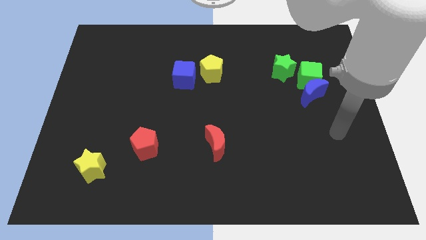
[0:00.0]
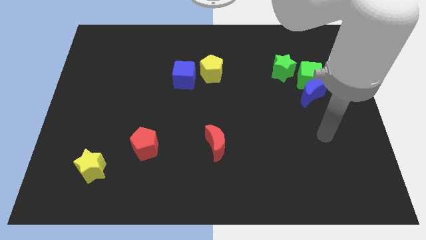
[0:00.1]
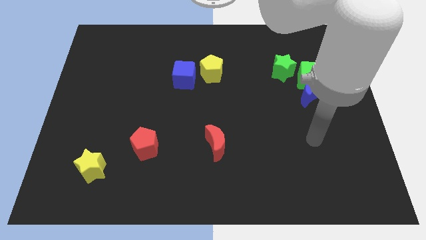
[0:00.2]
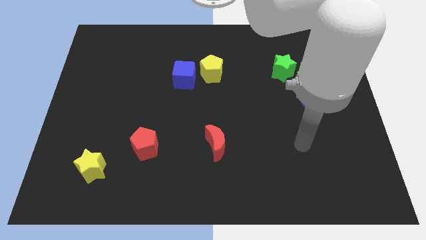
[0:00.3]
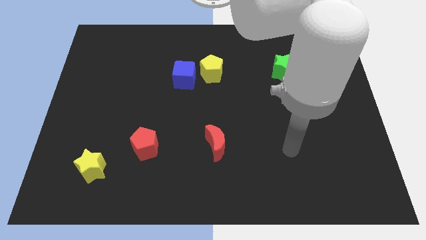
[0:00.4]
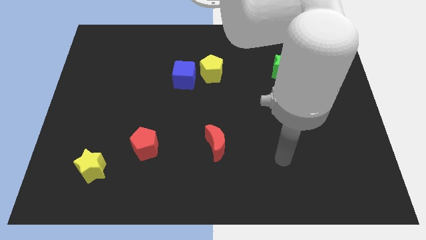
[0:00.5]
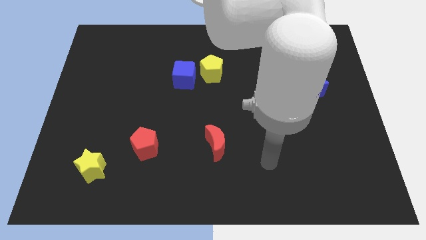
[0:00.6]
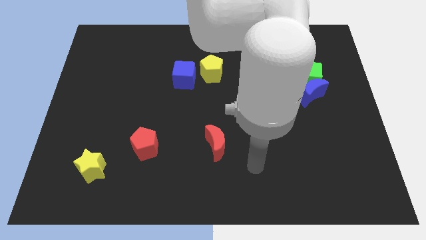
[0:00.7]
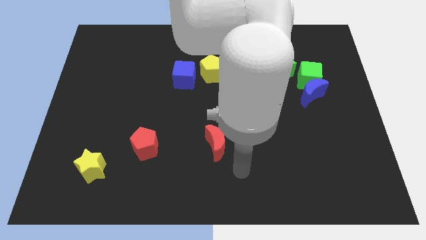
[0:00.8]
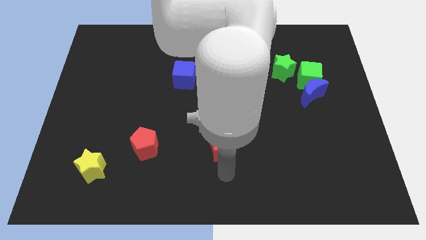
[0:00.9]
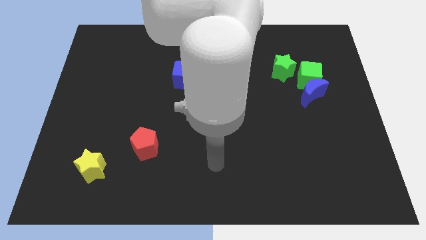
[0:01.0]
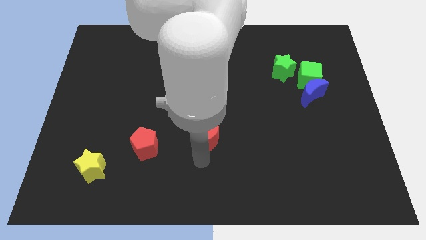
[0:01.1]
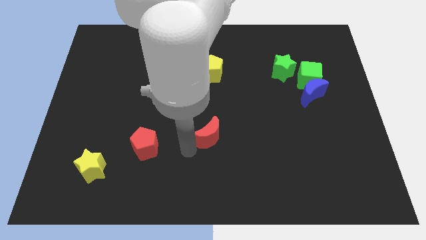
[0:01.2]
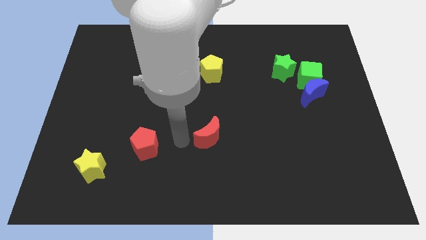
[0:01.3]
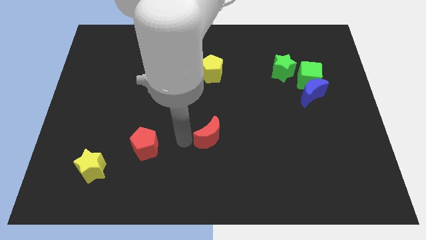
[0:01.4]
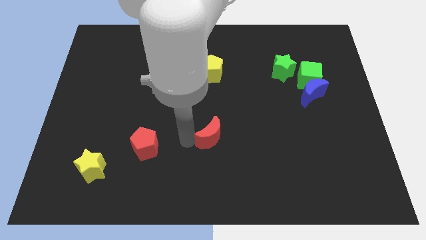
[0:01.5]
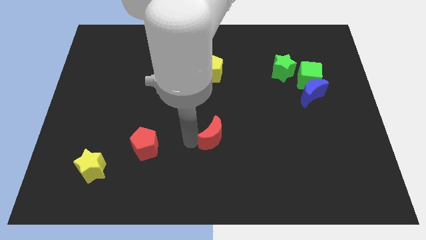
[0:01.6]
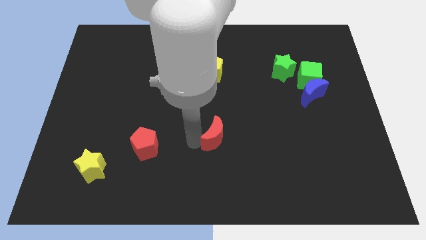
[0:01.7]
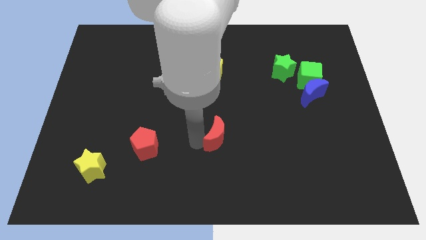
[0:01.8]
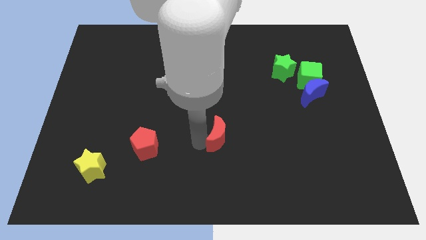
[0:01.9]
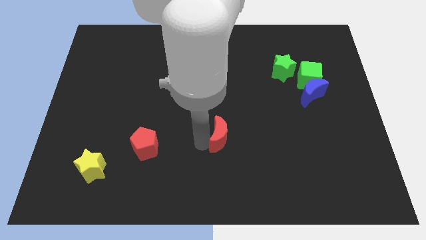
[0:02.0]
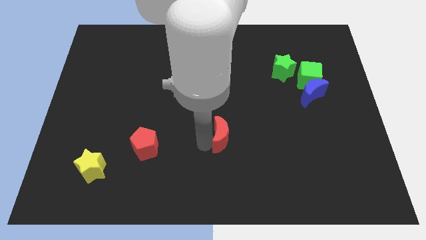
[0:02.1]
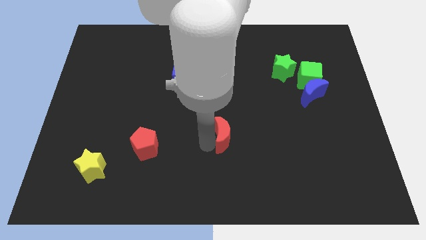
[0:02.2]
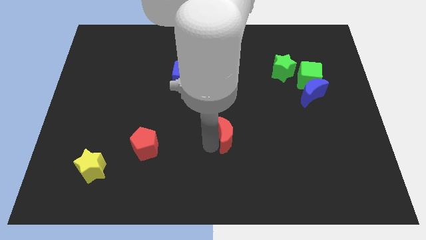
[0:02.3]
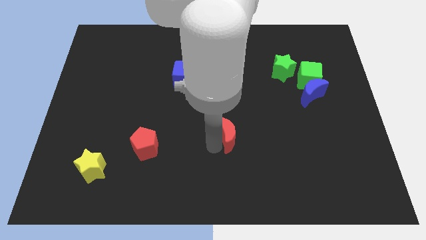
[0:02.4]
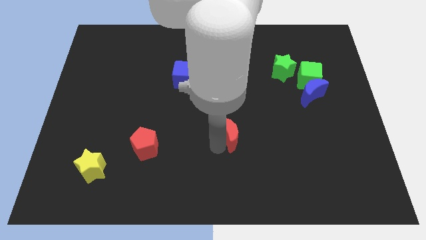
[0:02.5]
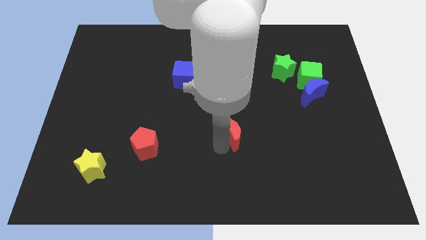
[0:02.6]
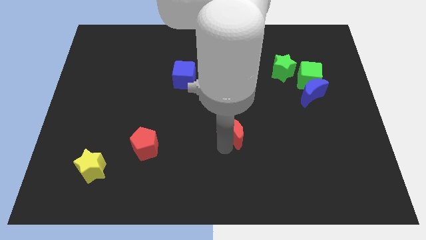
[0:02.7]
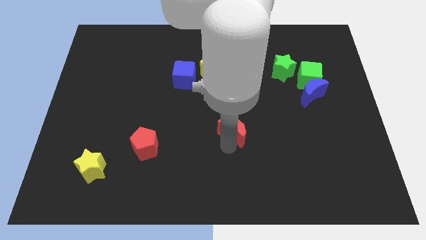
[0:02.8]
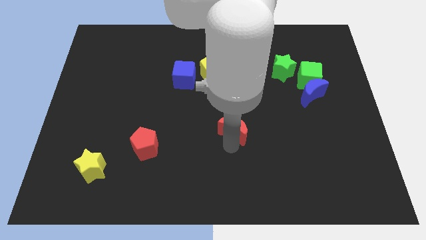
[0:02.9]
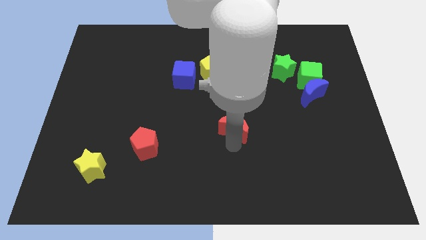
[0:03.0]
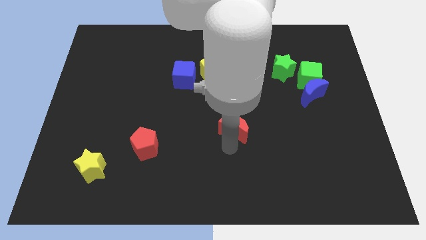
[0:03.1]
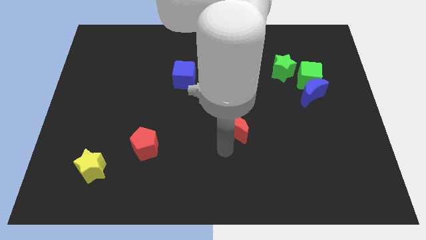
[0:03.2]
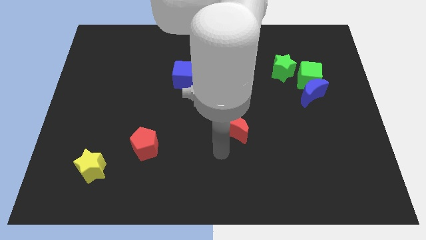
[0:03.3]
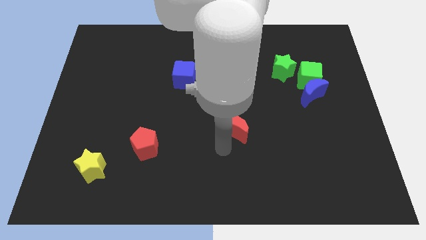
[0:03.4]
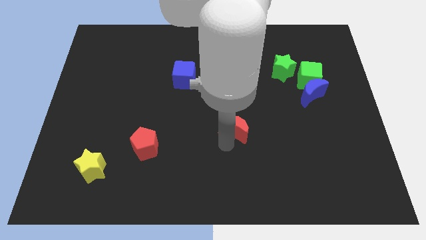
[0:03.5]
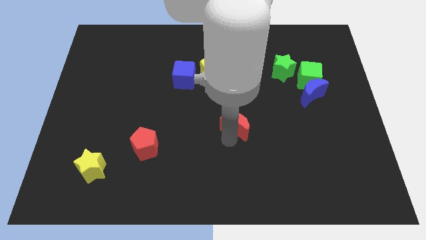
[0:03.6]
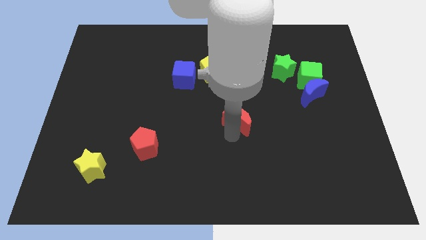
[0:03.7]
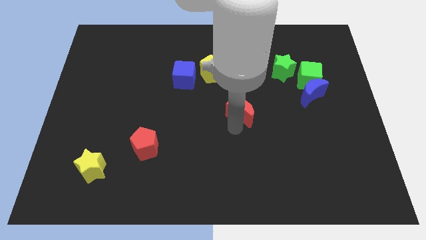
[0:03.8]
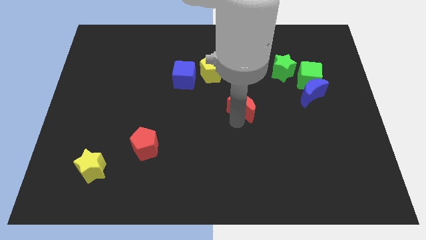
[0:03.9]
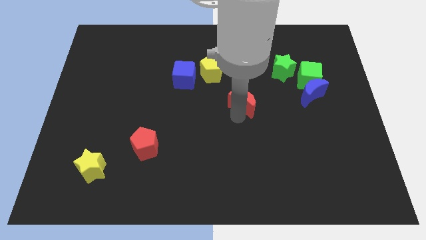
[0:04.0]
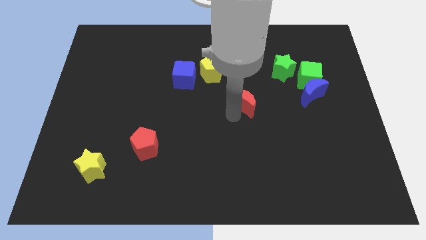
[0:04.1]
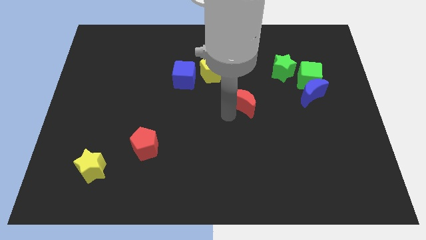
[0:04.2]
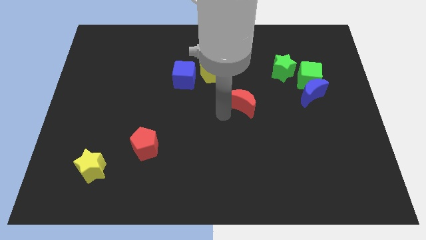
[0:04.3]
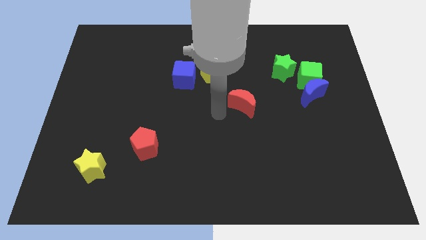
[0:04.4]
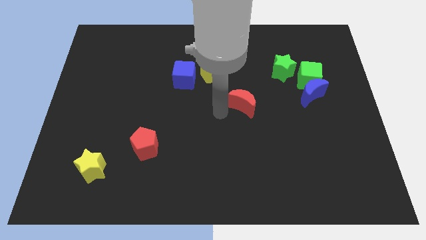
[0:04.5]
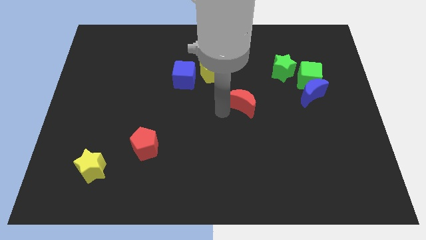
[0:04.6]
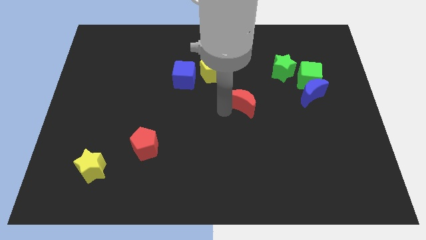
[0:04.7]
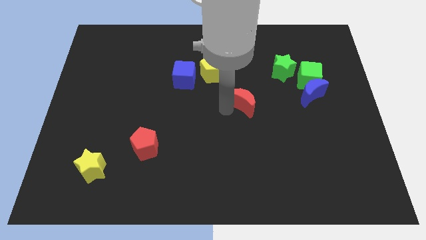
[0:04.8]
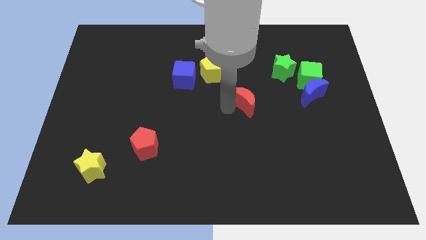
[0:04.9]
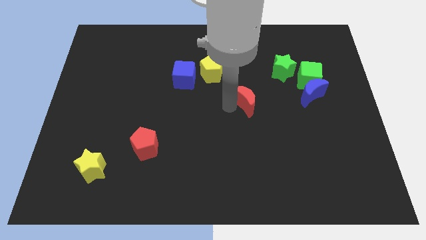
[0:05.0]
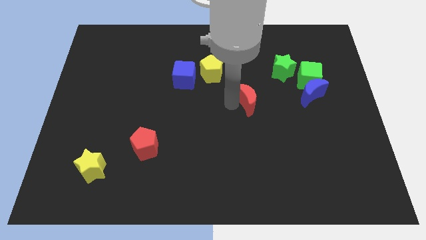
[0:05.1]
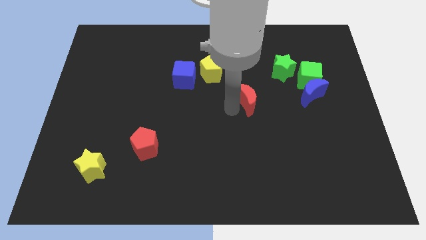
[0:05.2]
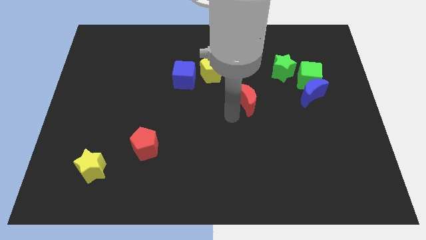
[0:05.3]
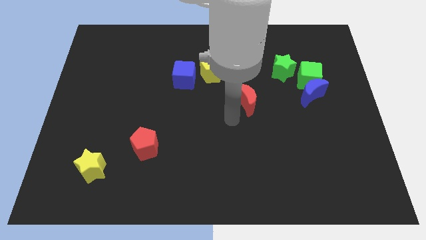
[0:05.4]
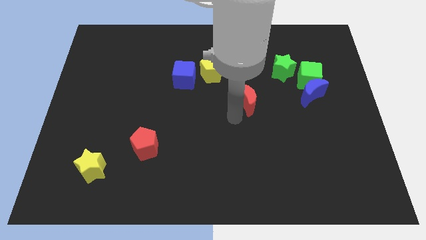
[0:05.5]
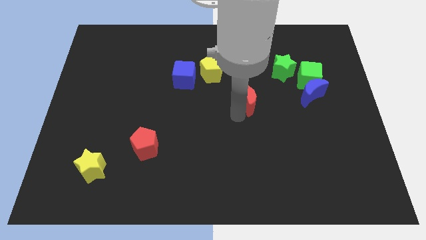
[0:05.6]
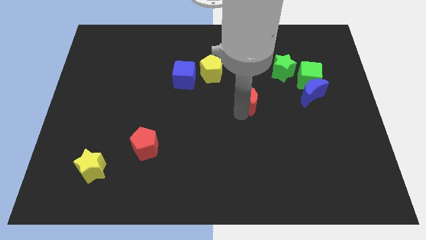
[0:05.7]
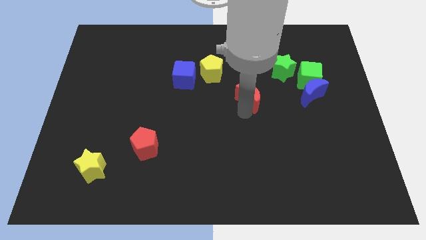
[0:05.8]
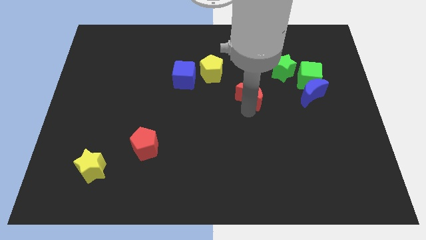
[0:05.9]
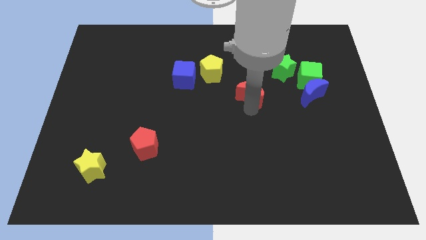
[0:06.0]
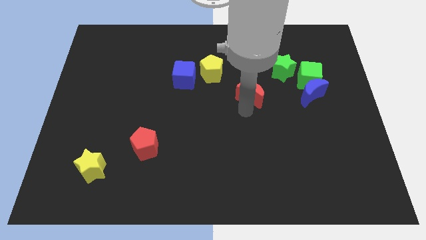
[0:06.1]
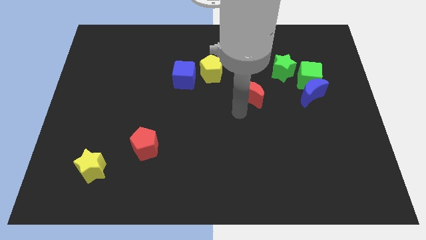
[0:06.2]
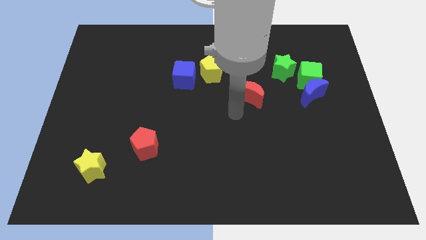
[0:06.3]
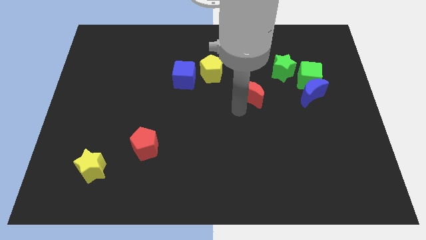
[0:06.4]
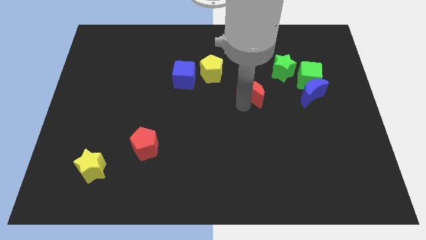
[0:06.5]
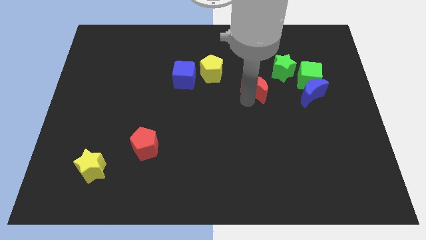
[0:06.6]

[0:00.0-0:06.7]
put the red moon left of the green cube

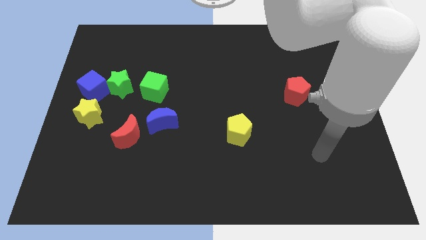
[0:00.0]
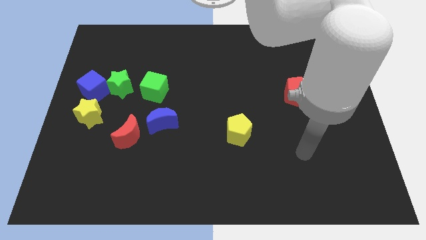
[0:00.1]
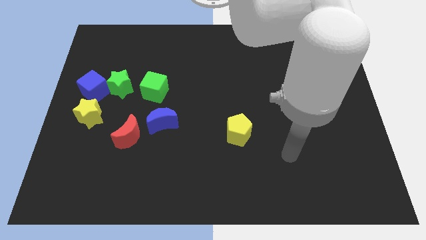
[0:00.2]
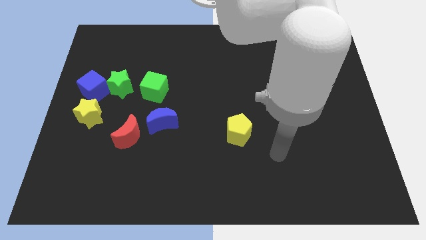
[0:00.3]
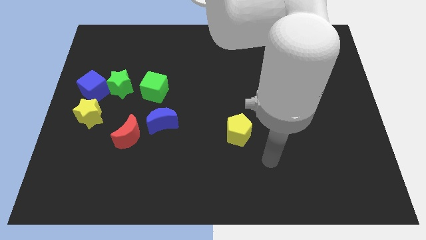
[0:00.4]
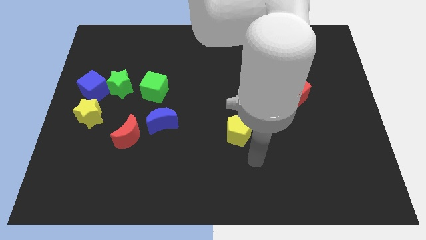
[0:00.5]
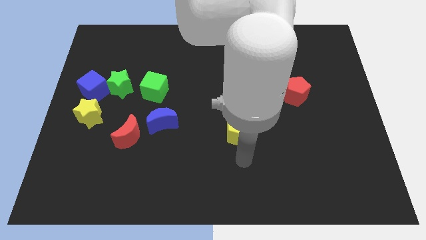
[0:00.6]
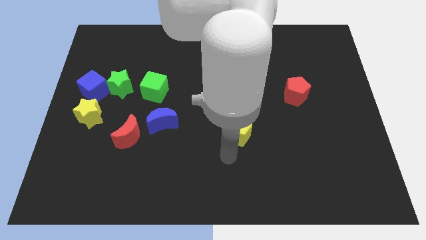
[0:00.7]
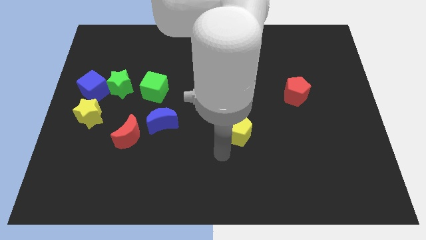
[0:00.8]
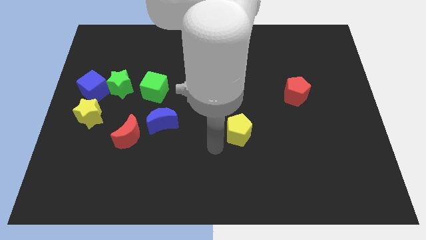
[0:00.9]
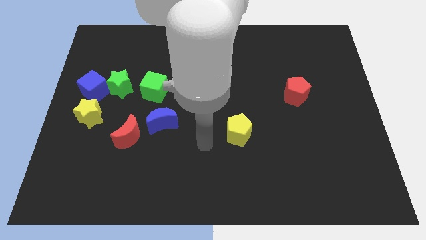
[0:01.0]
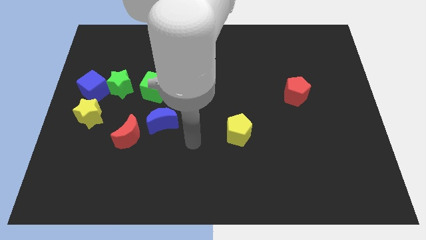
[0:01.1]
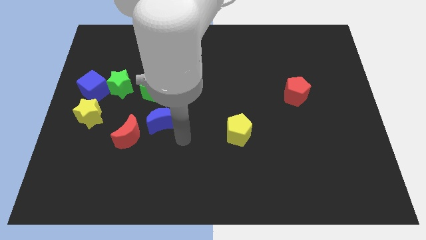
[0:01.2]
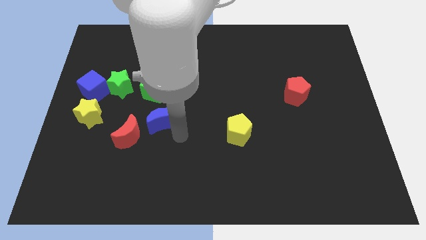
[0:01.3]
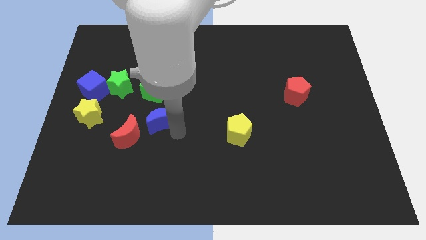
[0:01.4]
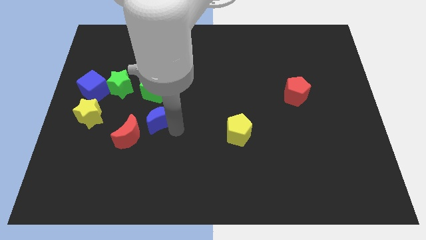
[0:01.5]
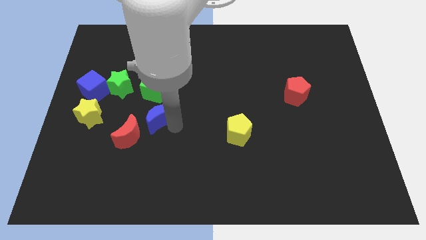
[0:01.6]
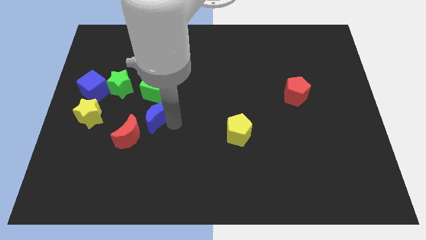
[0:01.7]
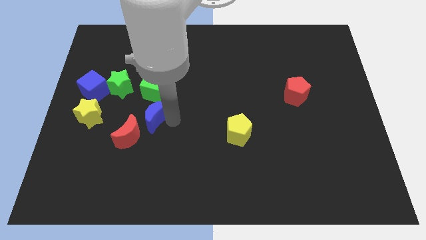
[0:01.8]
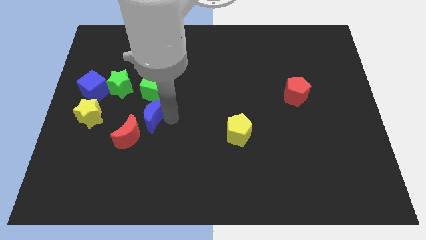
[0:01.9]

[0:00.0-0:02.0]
move the blue moon above the red moon
